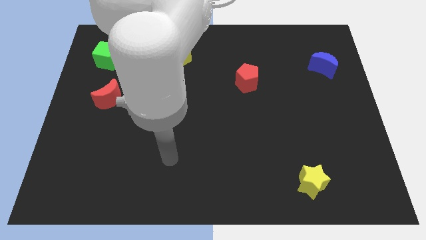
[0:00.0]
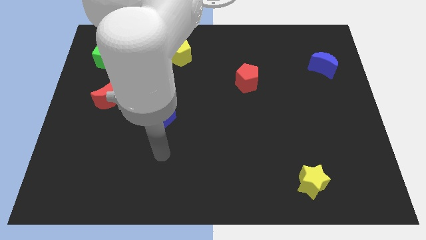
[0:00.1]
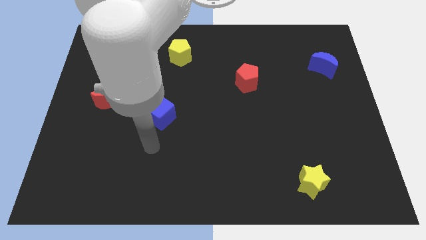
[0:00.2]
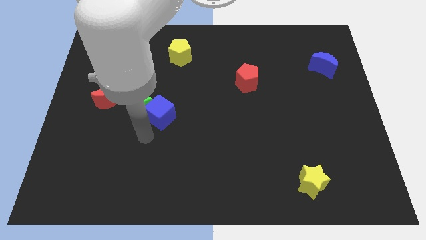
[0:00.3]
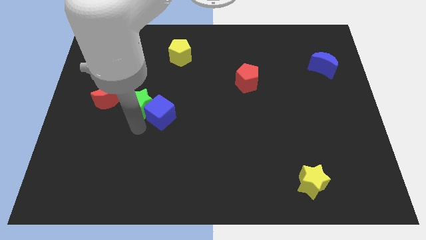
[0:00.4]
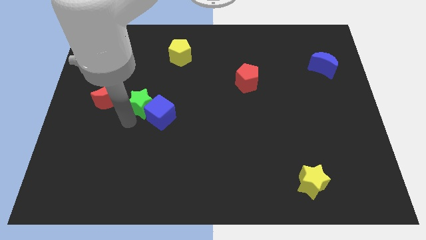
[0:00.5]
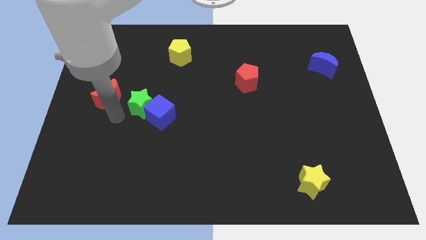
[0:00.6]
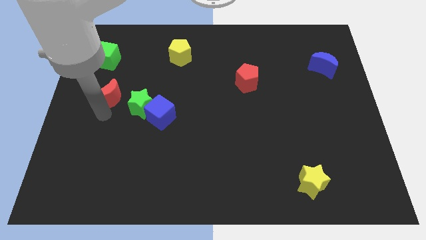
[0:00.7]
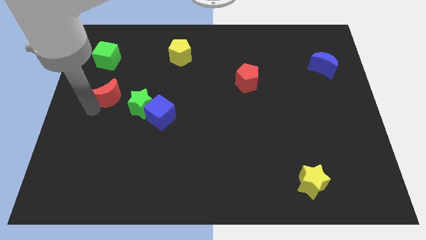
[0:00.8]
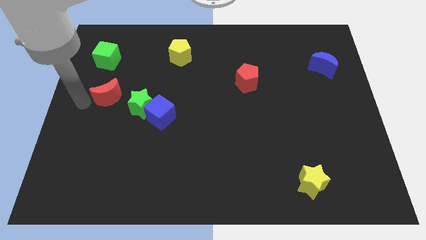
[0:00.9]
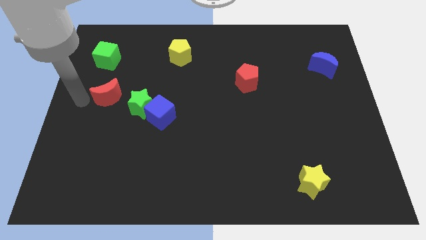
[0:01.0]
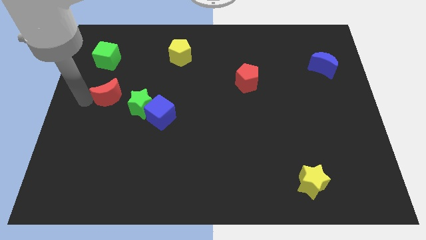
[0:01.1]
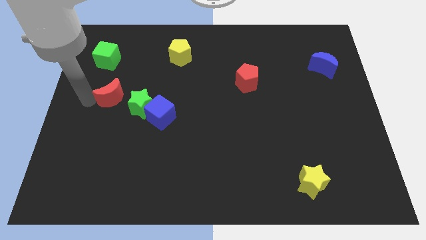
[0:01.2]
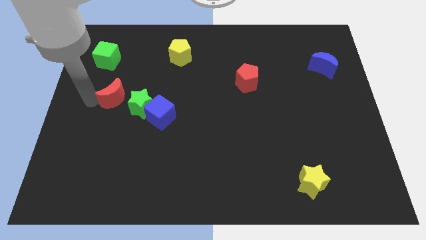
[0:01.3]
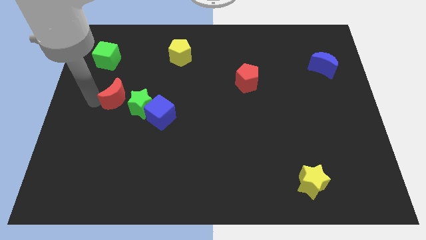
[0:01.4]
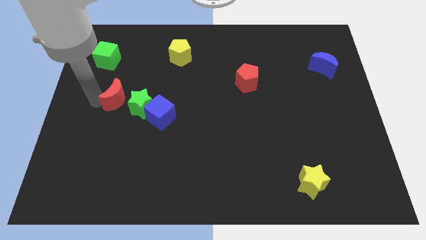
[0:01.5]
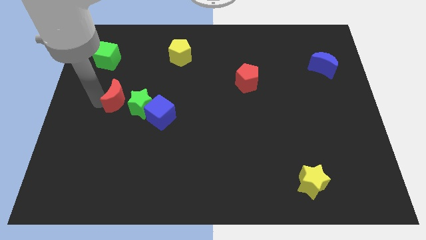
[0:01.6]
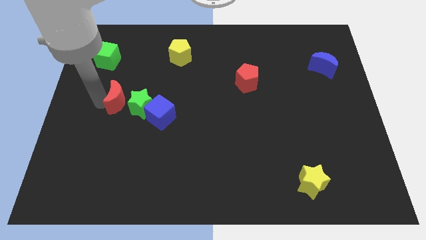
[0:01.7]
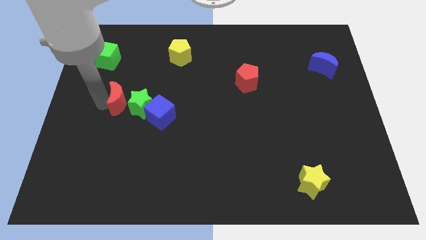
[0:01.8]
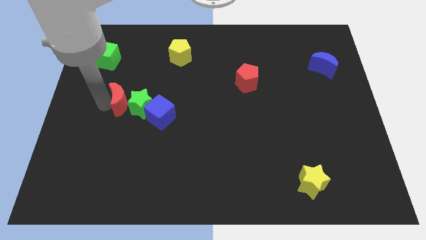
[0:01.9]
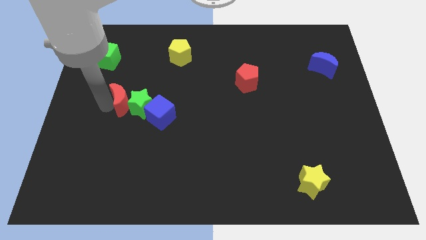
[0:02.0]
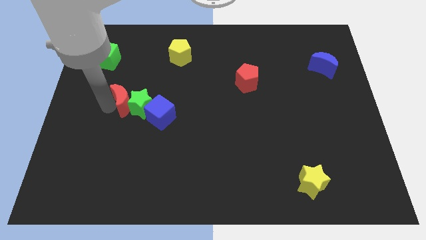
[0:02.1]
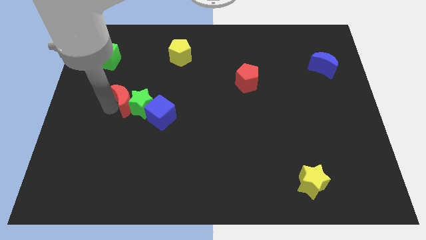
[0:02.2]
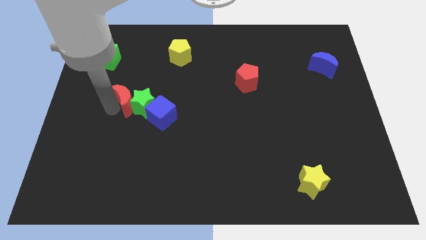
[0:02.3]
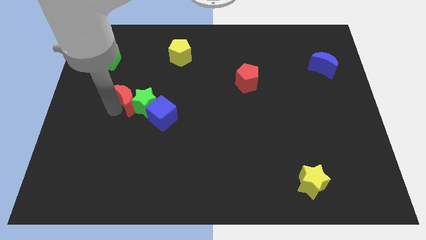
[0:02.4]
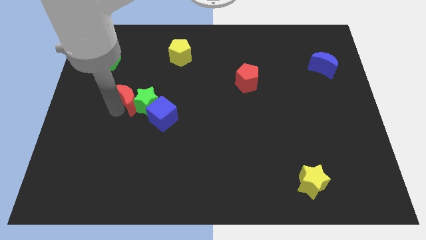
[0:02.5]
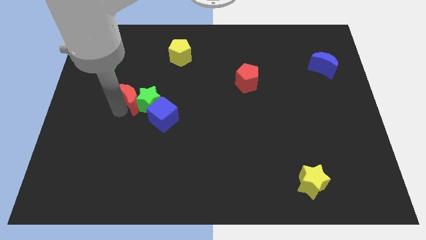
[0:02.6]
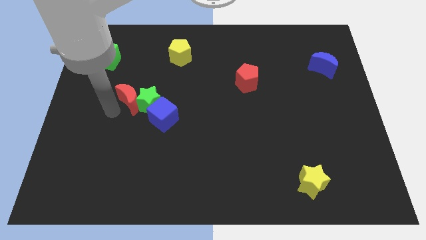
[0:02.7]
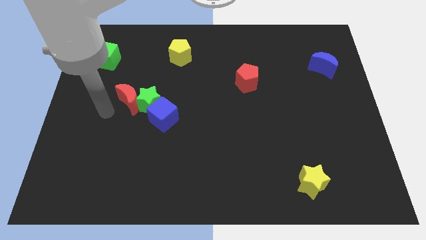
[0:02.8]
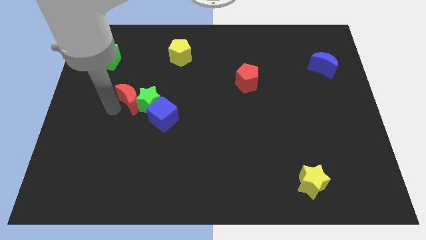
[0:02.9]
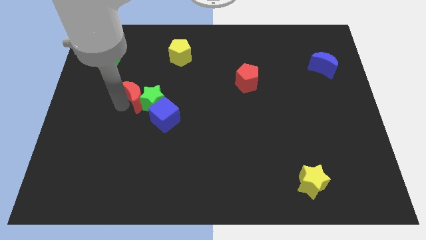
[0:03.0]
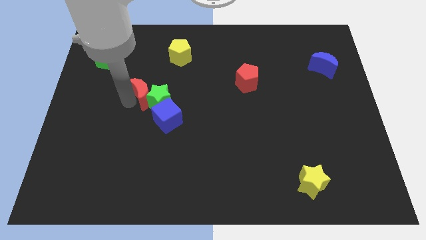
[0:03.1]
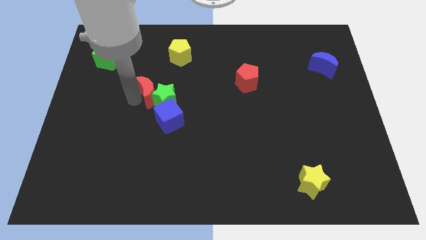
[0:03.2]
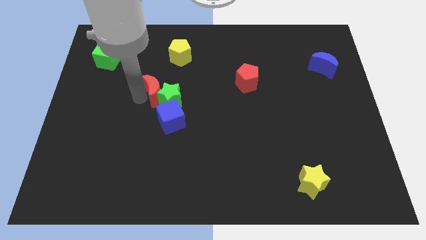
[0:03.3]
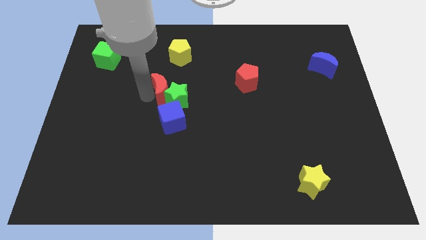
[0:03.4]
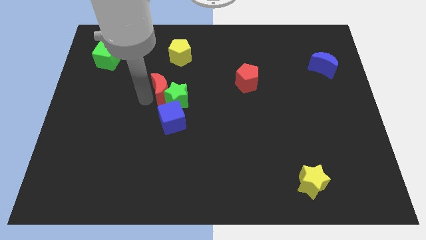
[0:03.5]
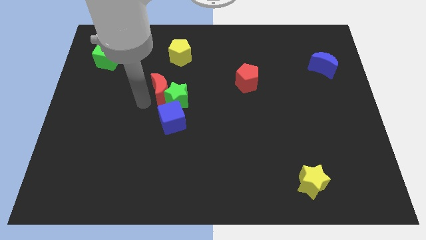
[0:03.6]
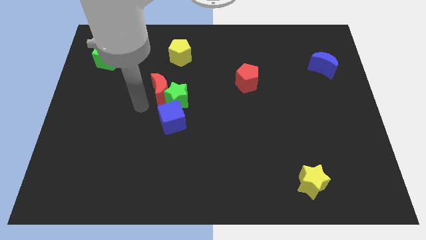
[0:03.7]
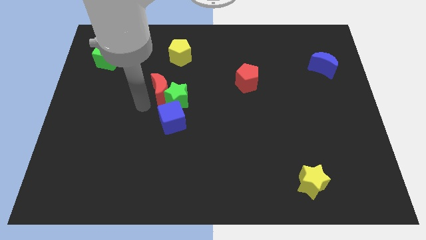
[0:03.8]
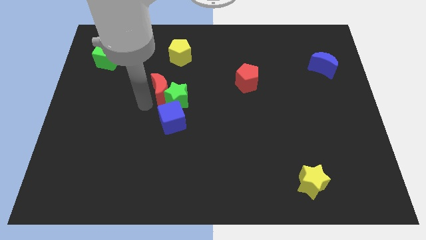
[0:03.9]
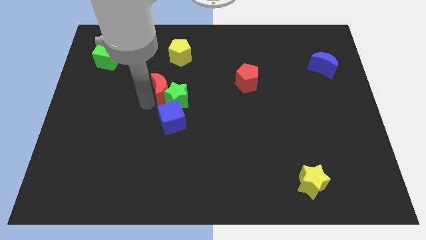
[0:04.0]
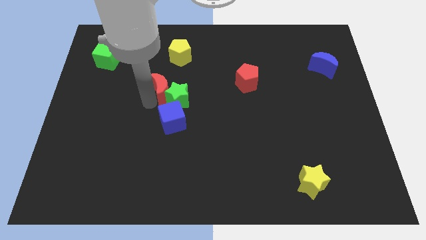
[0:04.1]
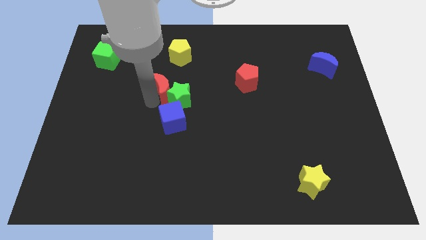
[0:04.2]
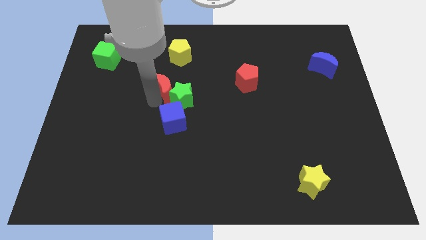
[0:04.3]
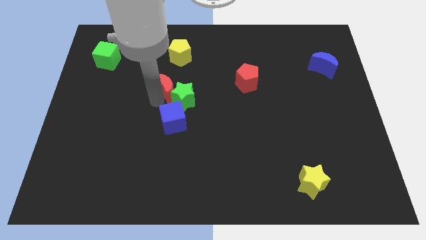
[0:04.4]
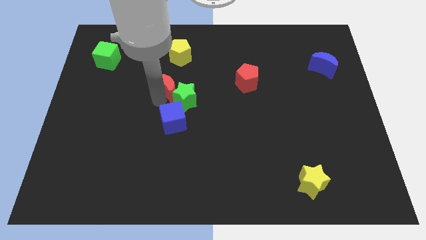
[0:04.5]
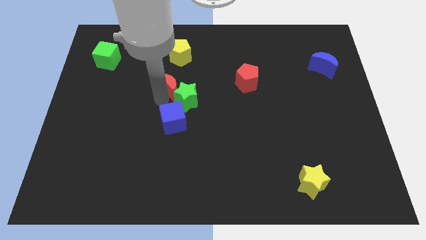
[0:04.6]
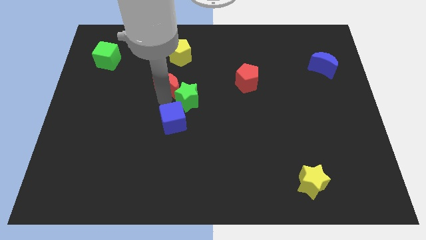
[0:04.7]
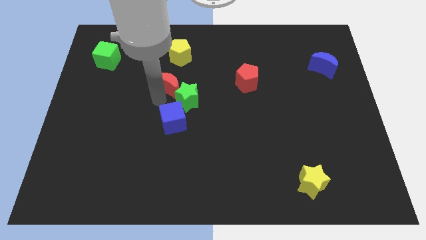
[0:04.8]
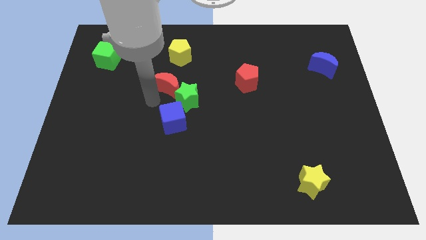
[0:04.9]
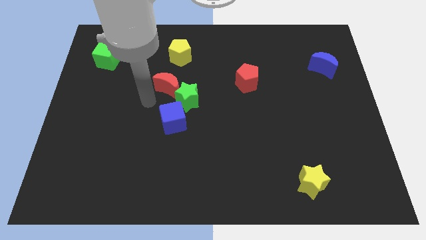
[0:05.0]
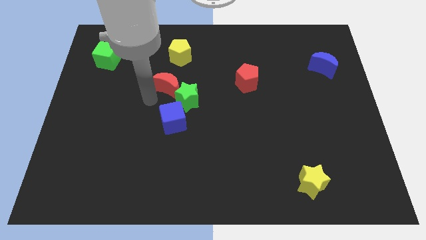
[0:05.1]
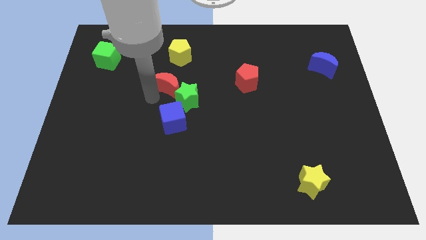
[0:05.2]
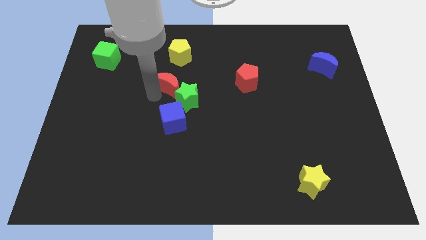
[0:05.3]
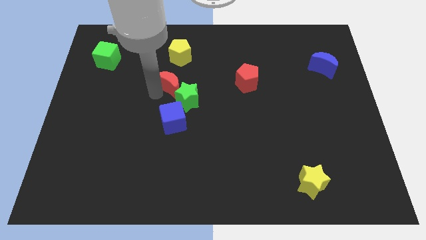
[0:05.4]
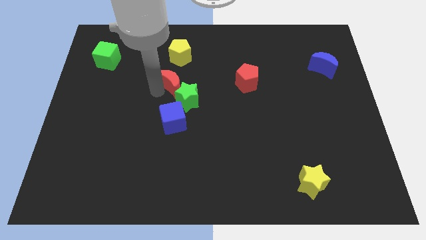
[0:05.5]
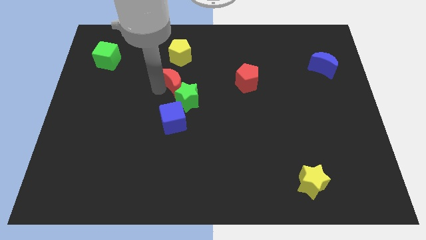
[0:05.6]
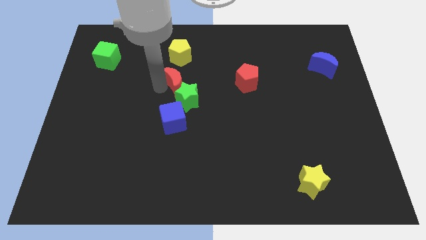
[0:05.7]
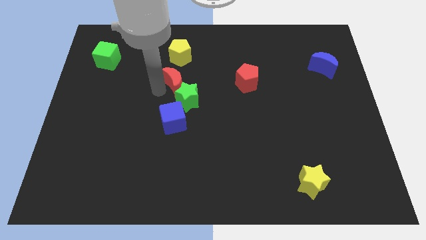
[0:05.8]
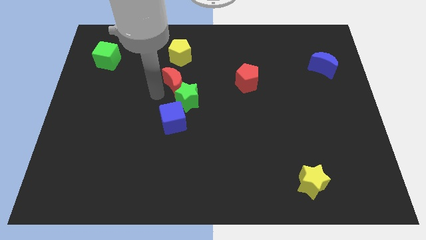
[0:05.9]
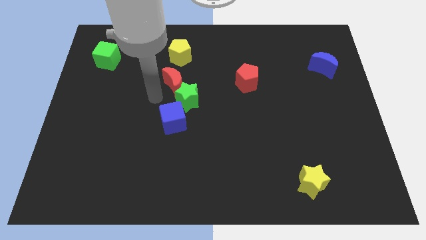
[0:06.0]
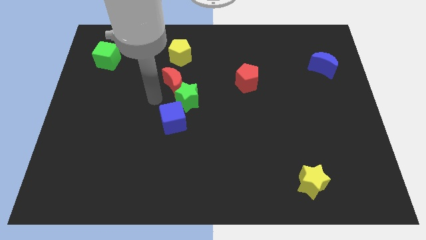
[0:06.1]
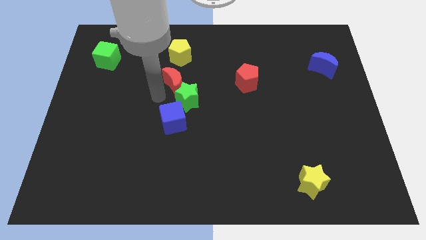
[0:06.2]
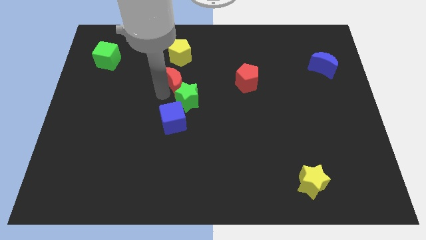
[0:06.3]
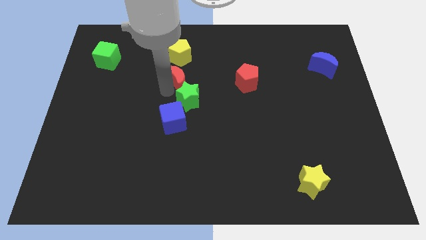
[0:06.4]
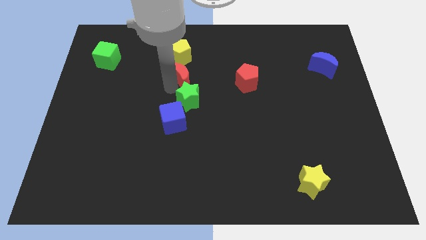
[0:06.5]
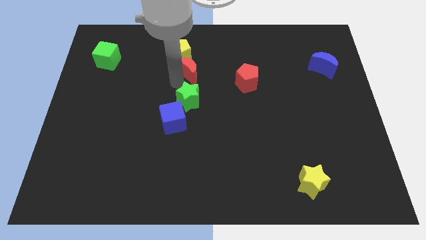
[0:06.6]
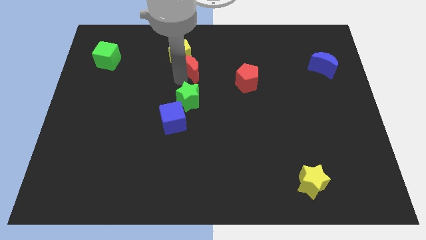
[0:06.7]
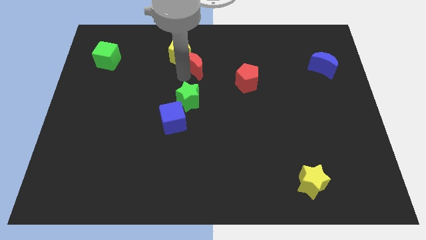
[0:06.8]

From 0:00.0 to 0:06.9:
push the red moon to the right side of the yellow pentagon
